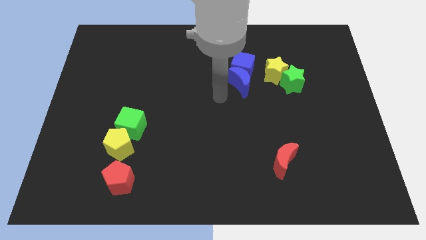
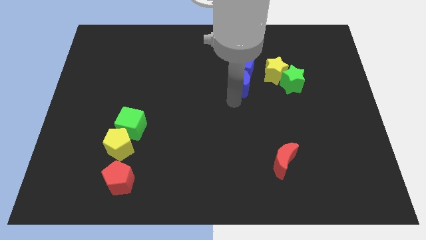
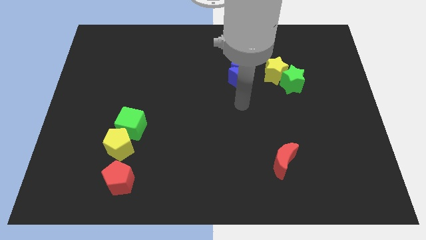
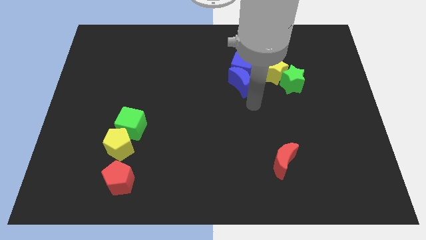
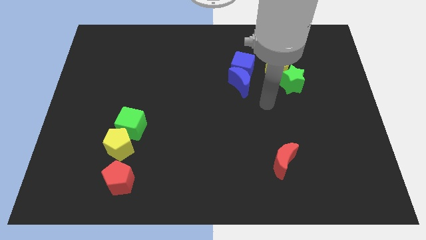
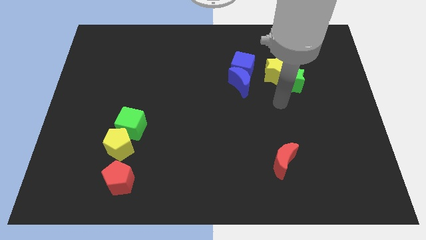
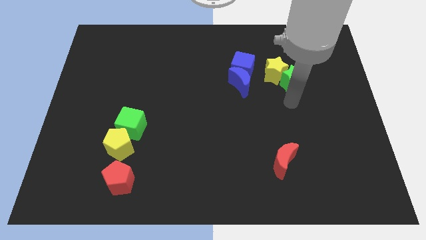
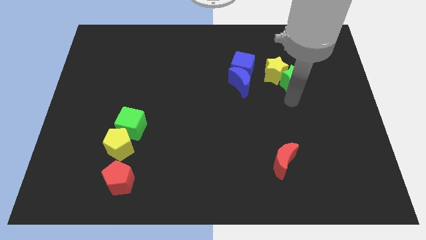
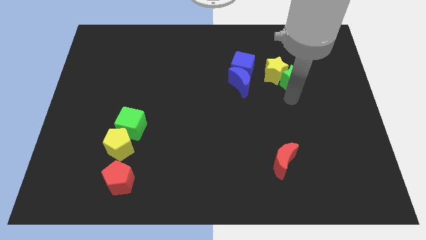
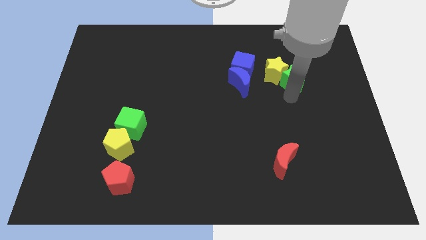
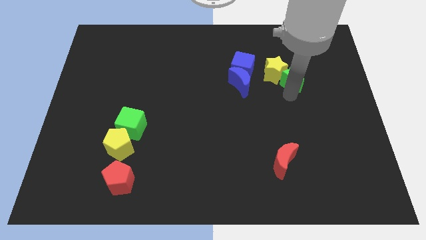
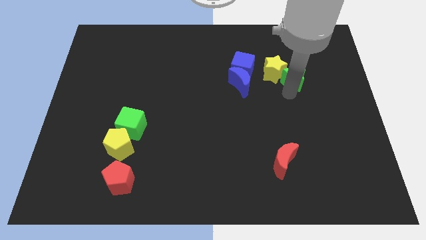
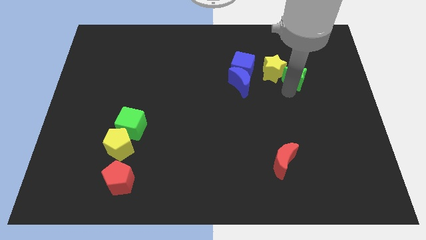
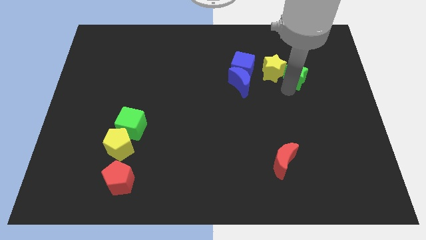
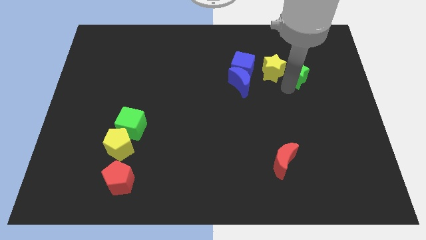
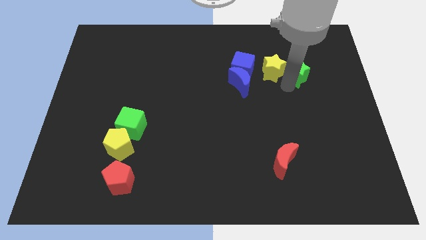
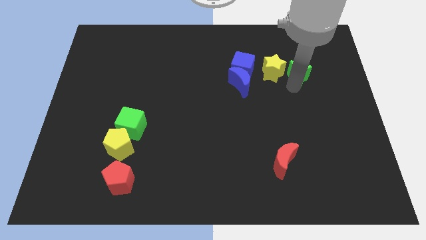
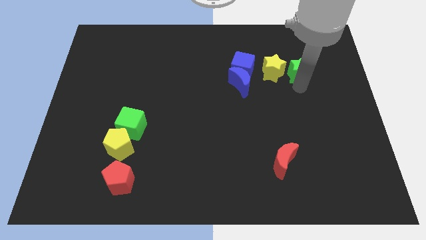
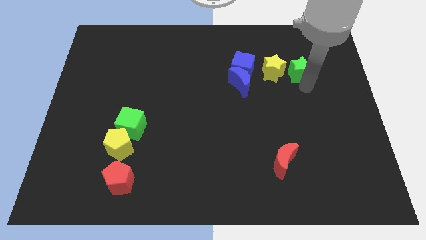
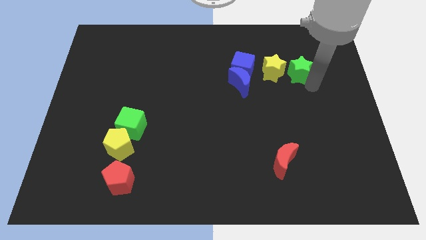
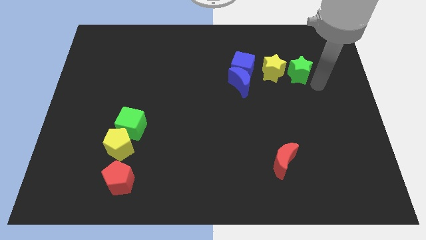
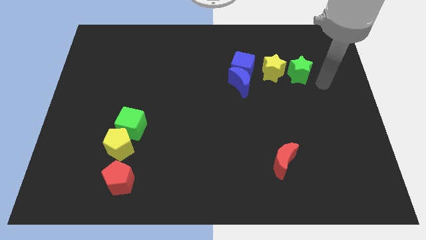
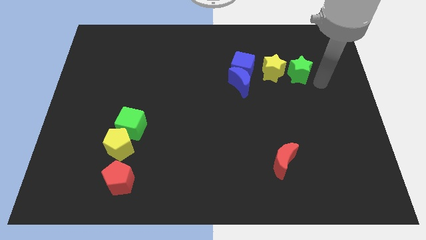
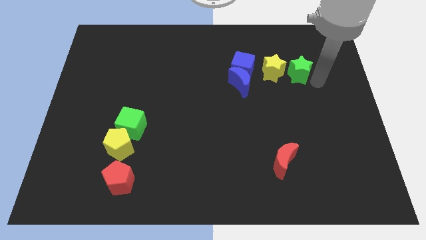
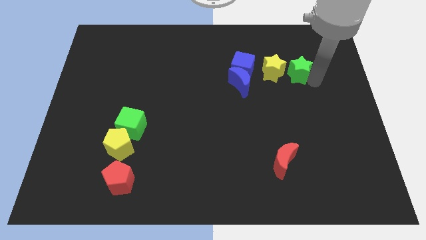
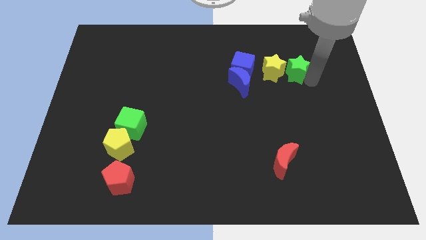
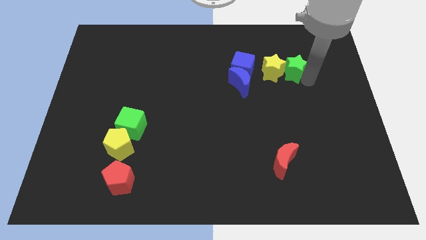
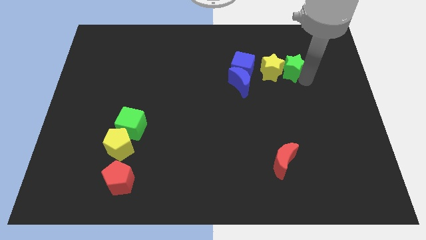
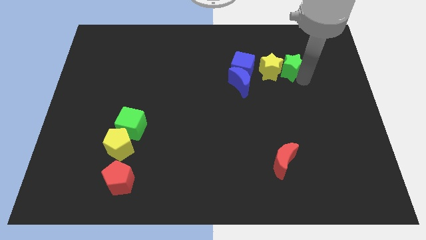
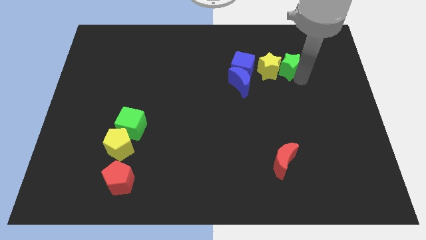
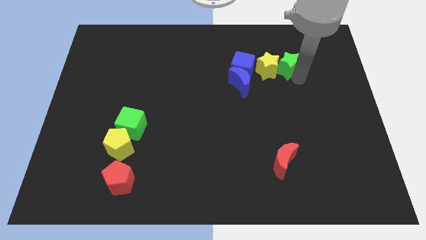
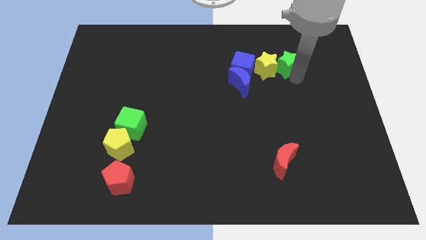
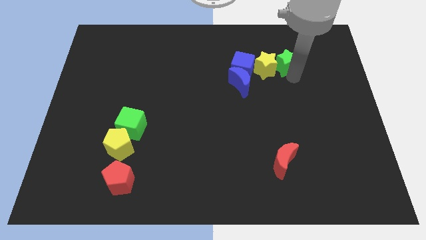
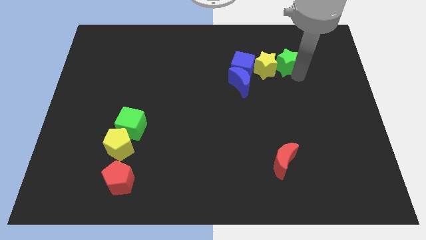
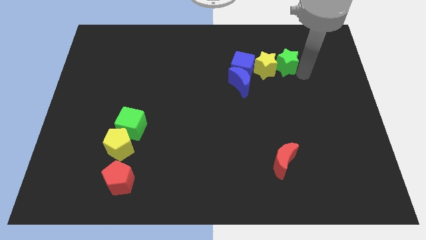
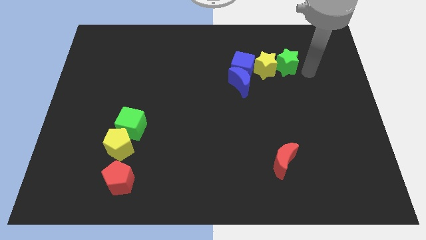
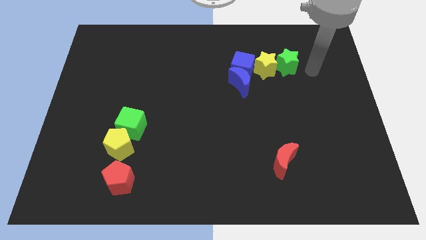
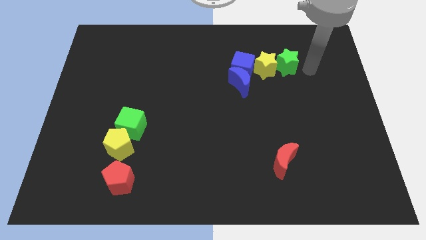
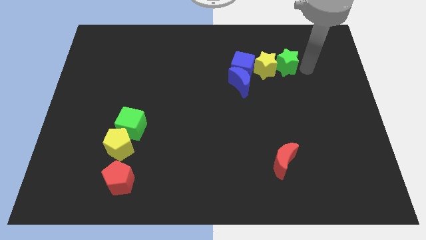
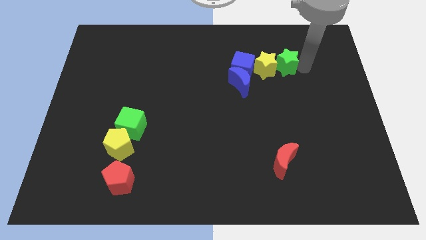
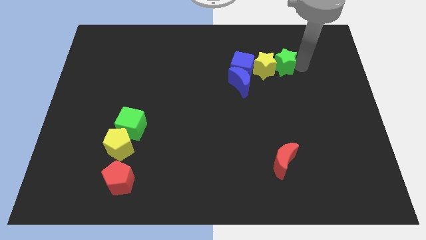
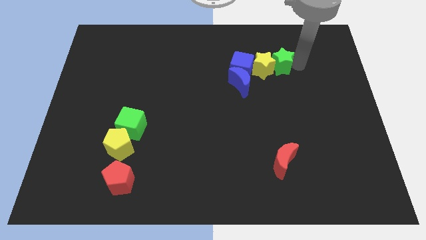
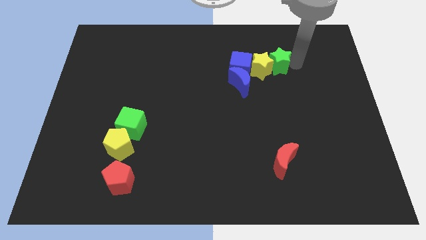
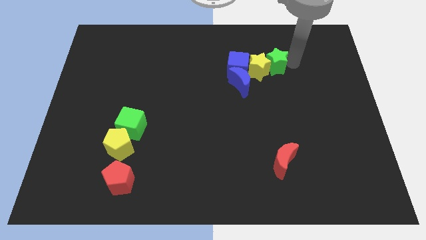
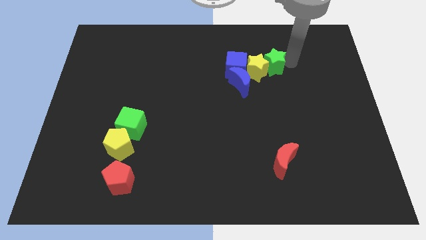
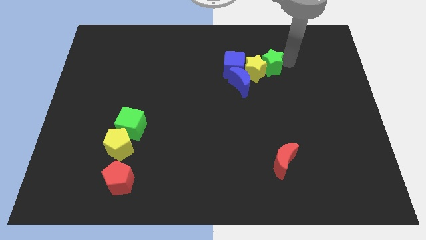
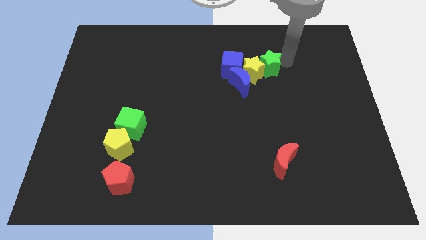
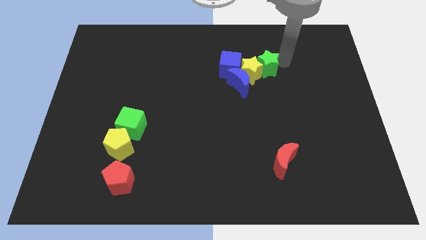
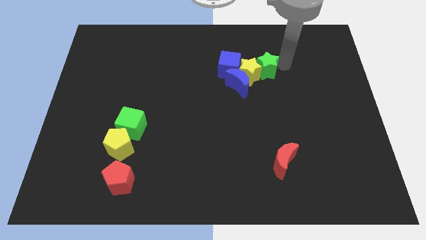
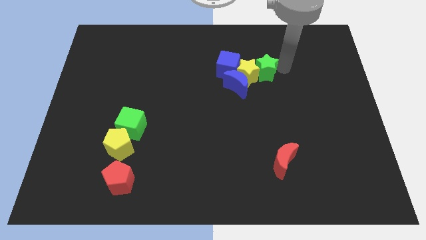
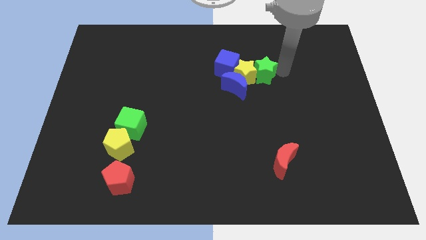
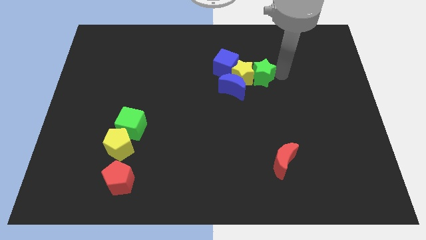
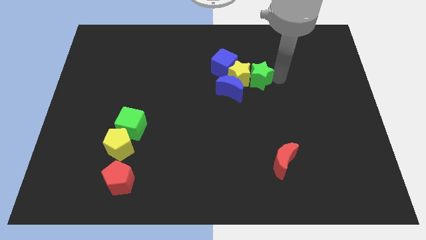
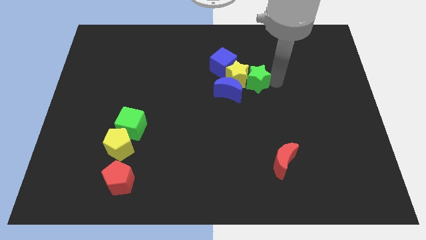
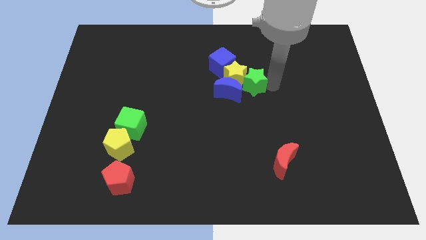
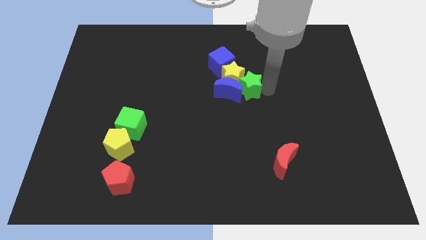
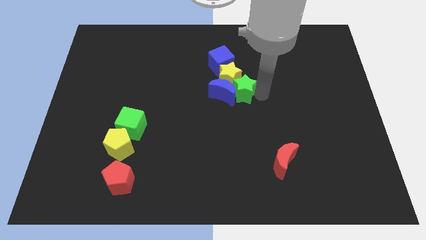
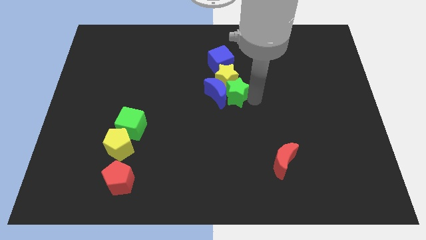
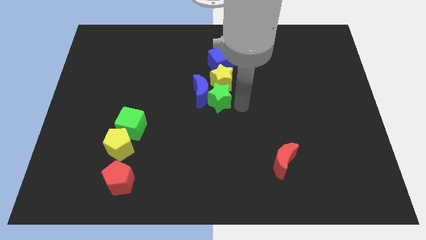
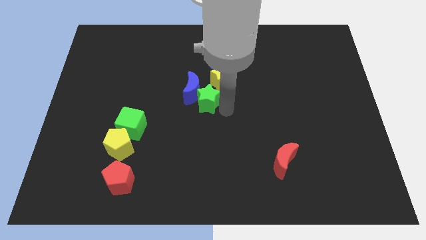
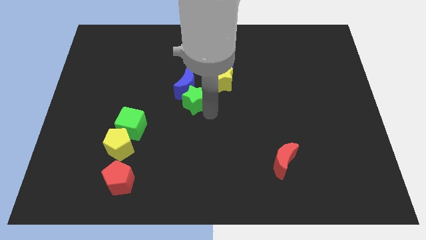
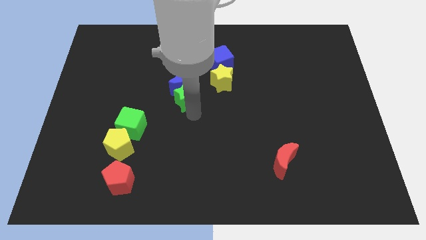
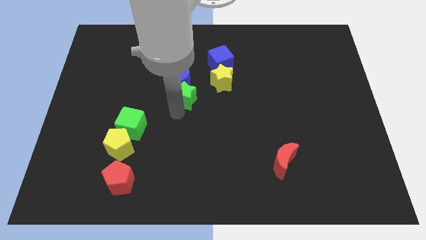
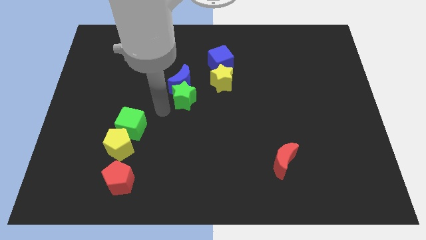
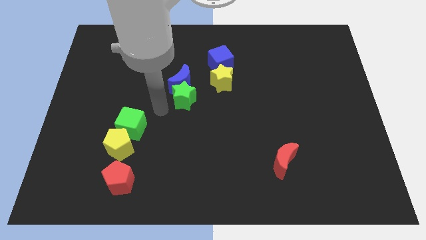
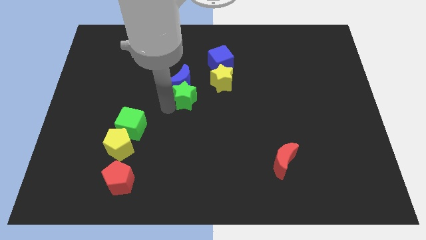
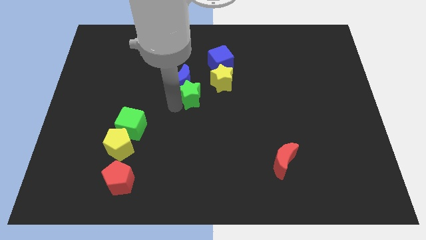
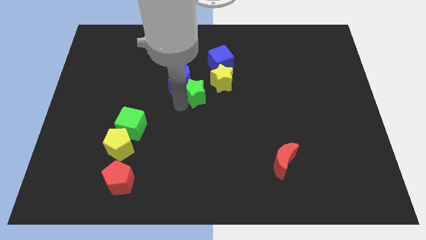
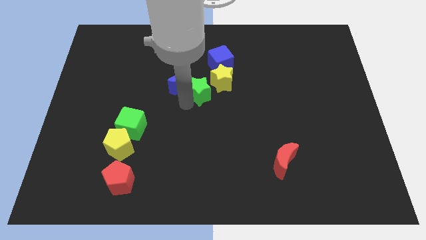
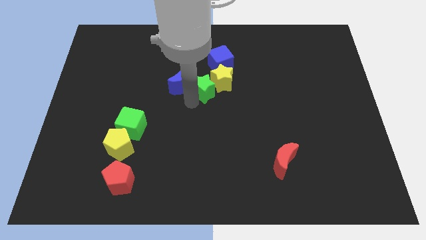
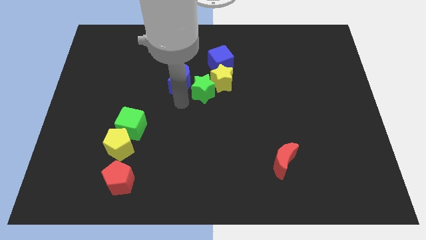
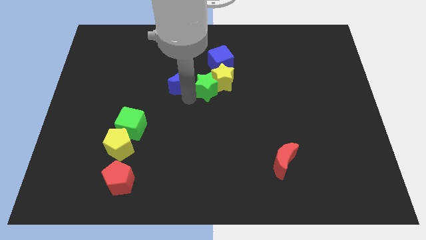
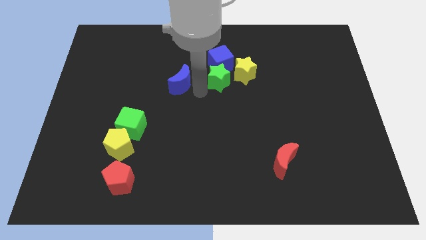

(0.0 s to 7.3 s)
move the green star towards the blue cube

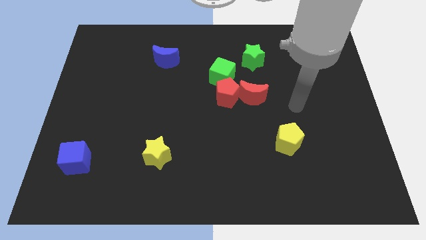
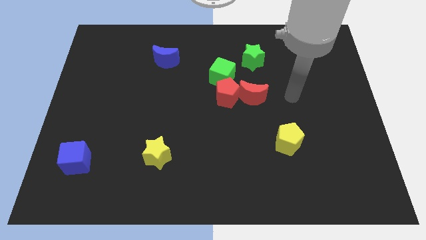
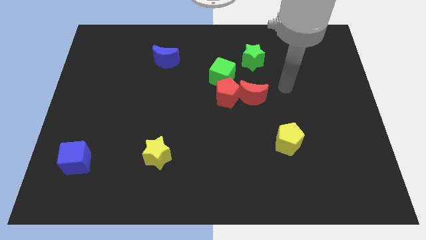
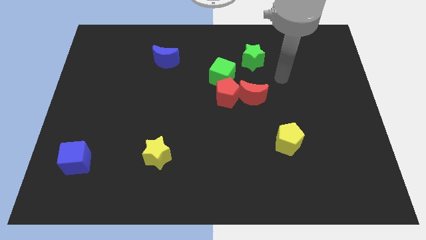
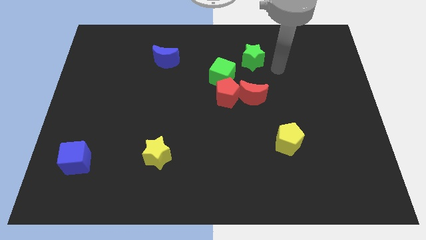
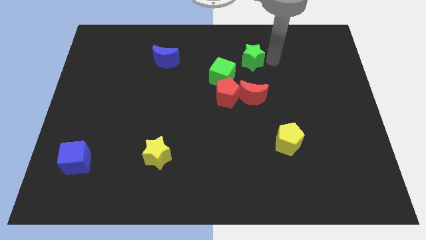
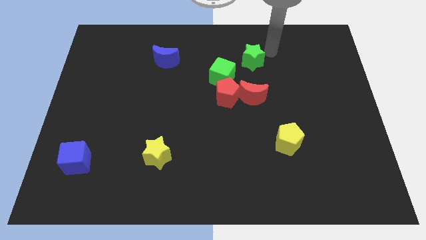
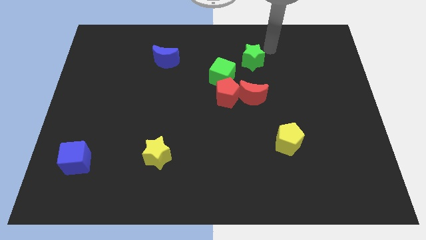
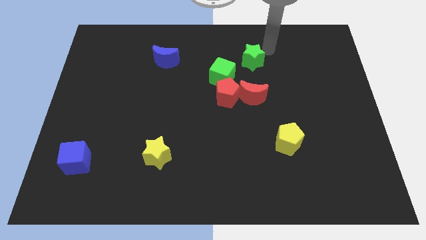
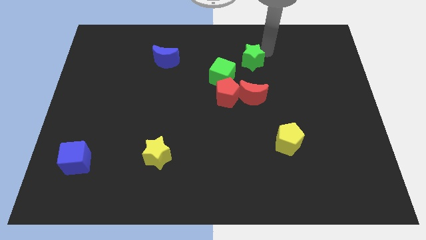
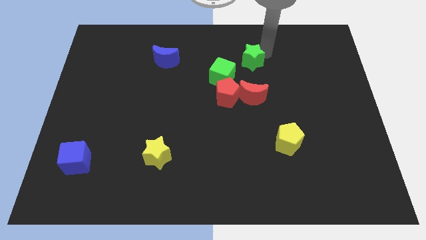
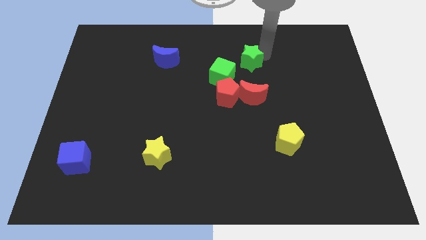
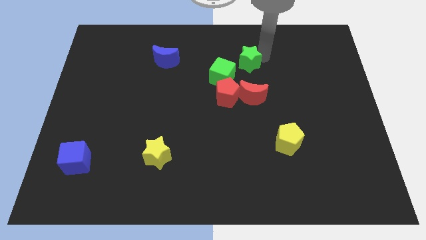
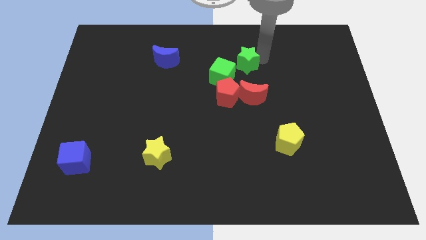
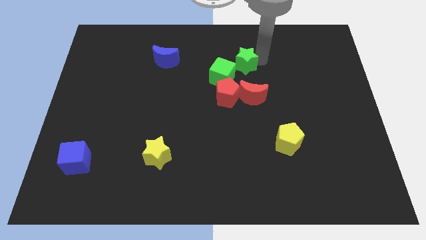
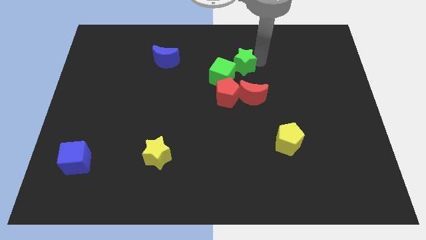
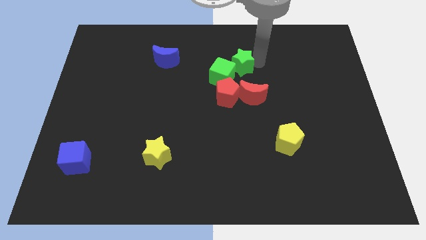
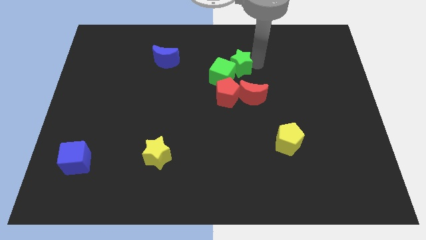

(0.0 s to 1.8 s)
push the green star close to the green cube
